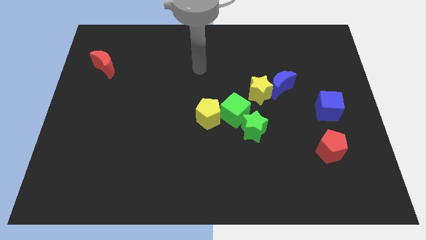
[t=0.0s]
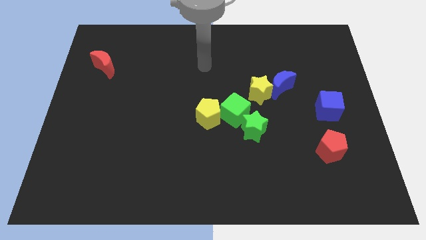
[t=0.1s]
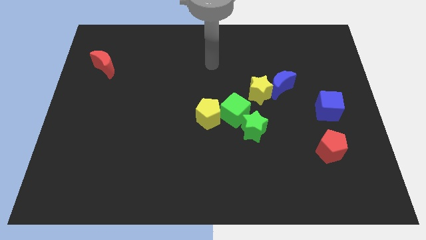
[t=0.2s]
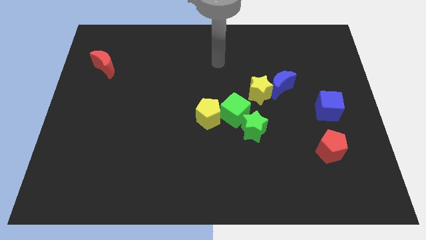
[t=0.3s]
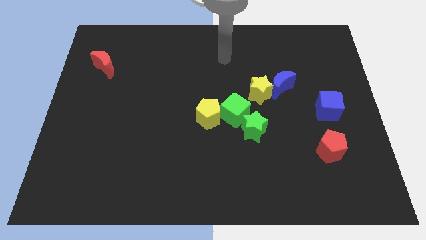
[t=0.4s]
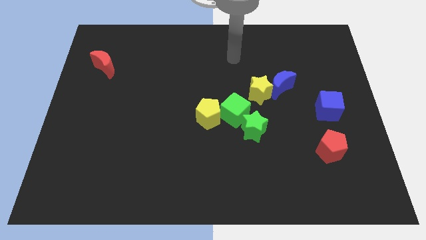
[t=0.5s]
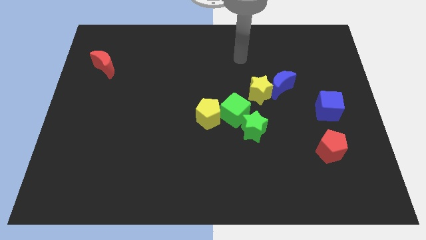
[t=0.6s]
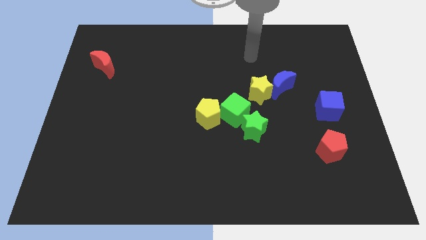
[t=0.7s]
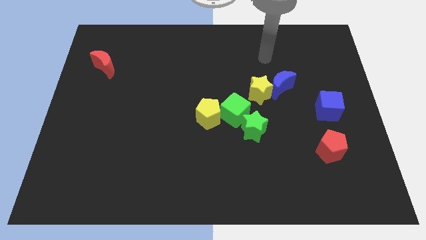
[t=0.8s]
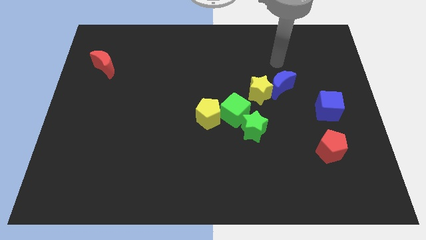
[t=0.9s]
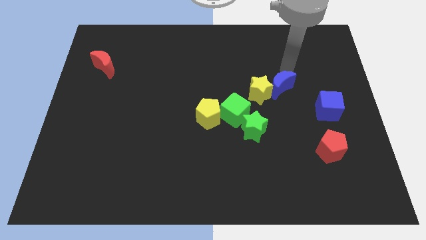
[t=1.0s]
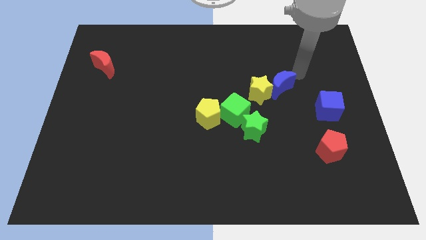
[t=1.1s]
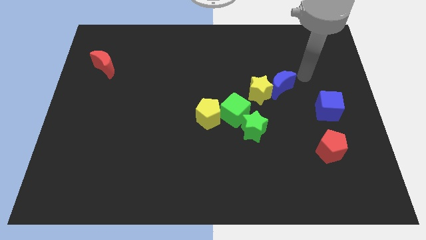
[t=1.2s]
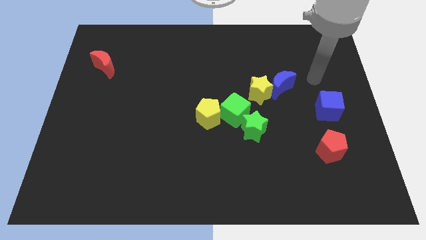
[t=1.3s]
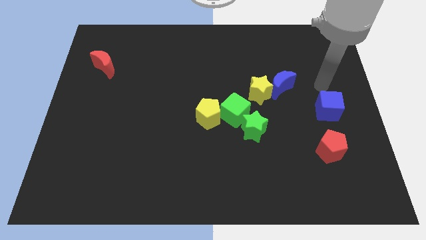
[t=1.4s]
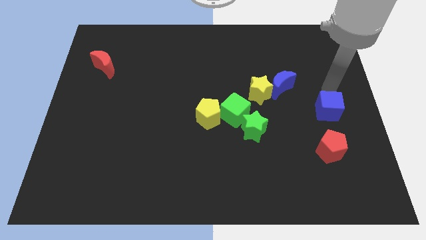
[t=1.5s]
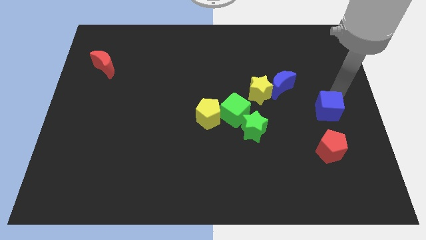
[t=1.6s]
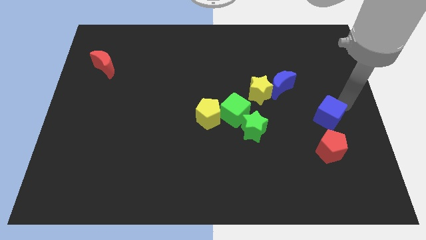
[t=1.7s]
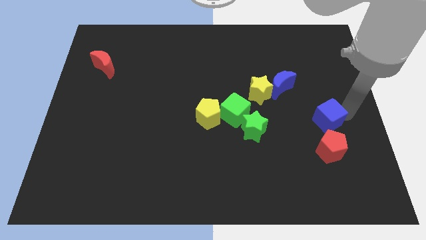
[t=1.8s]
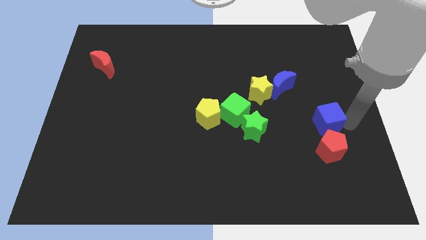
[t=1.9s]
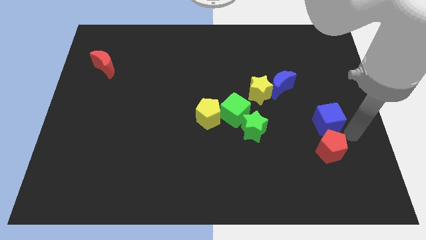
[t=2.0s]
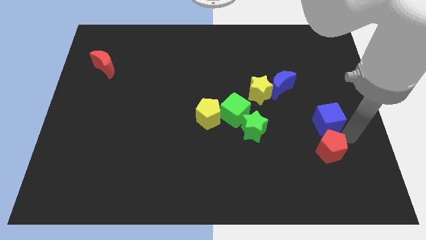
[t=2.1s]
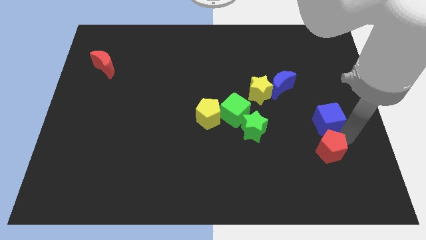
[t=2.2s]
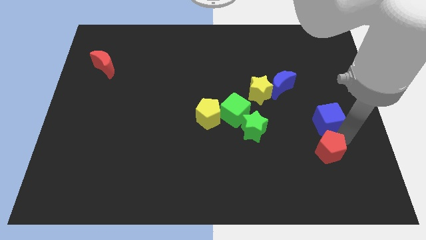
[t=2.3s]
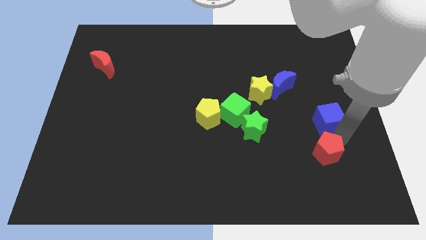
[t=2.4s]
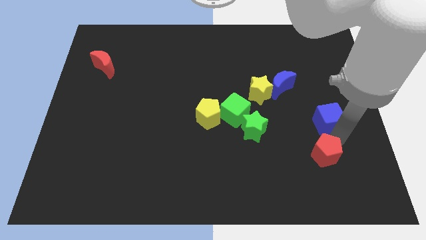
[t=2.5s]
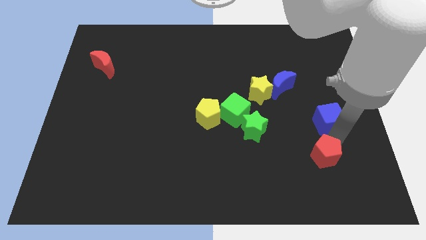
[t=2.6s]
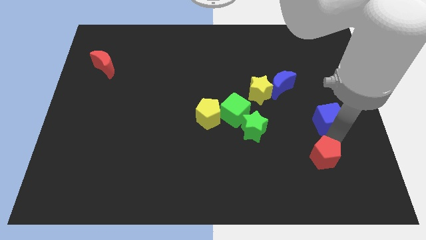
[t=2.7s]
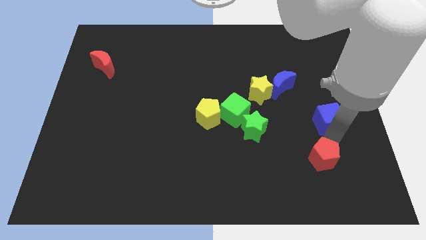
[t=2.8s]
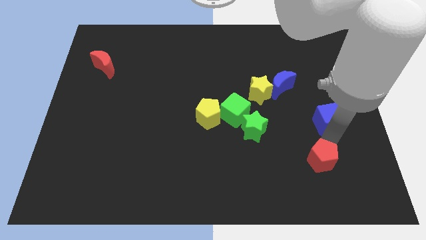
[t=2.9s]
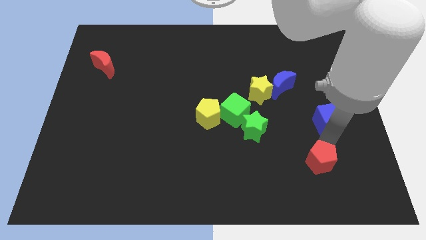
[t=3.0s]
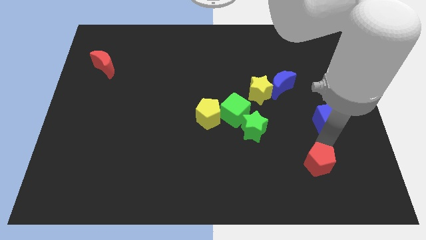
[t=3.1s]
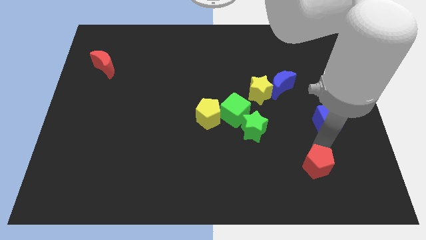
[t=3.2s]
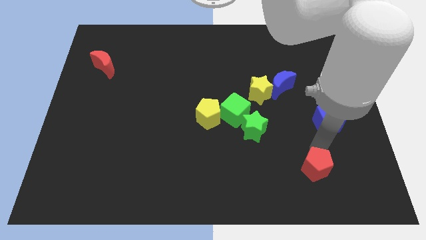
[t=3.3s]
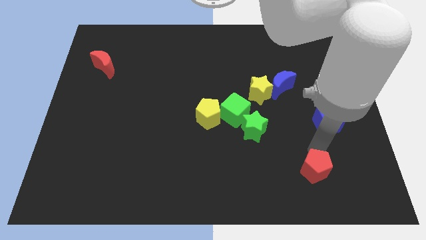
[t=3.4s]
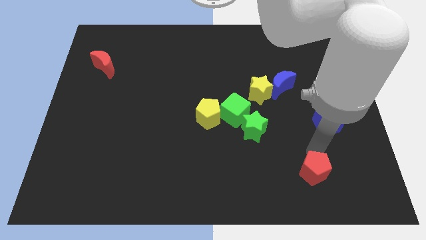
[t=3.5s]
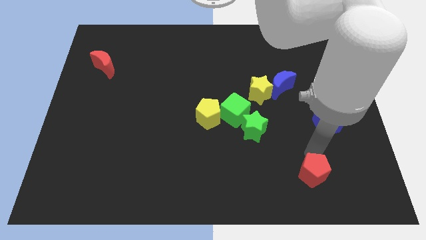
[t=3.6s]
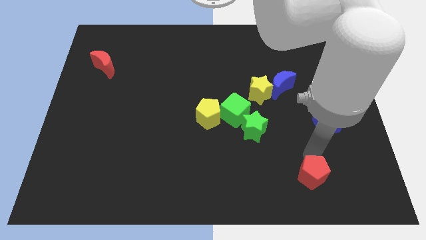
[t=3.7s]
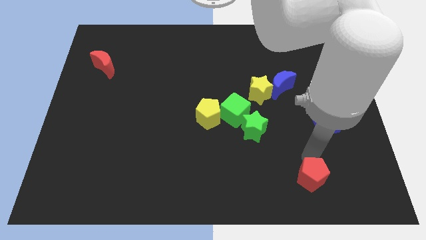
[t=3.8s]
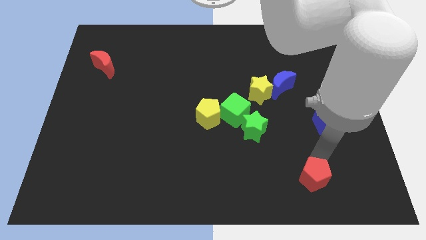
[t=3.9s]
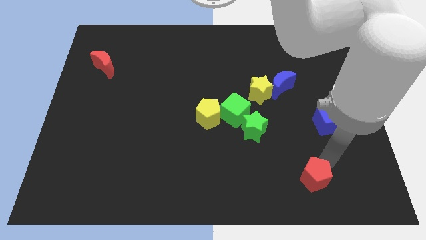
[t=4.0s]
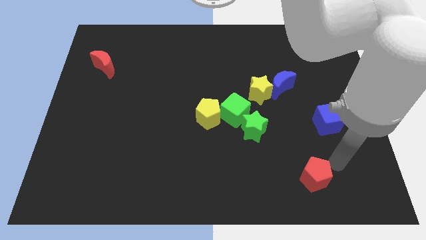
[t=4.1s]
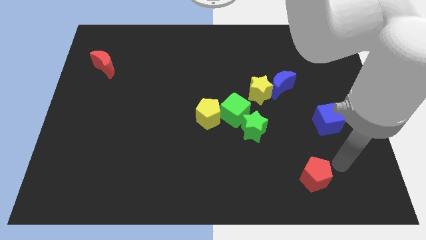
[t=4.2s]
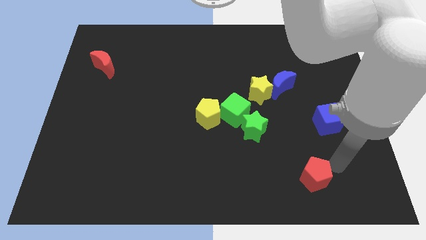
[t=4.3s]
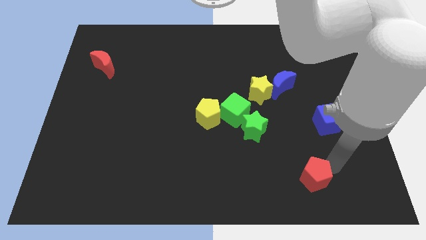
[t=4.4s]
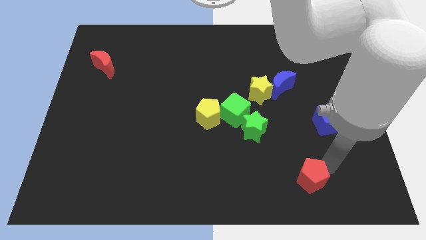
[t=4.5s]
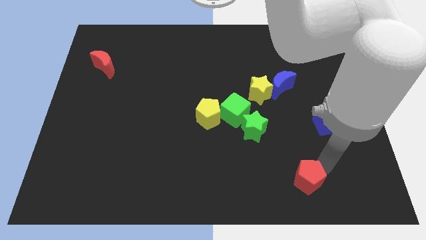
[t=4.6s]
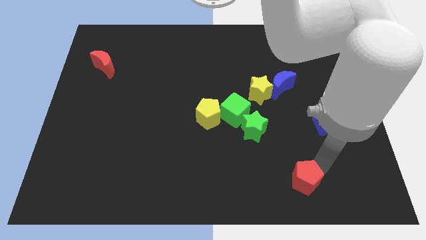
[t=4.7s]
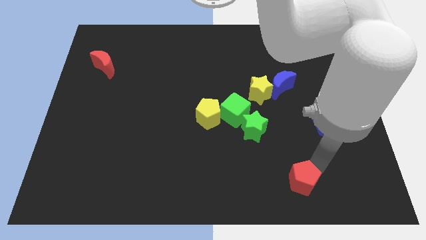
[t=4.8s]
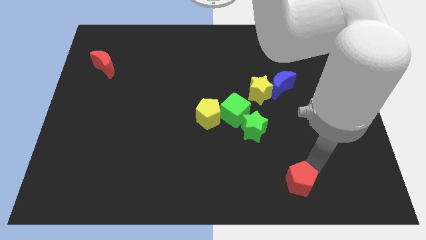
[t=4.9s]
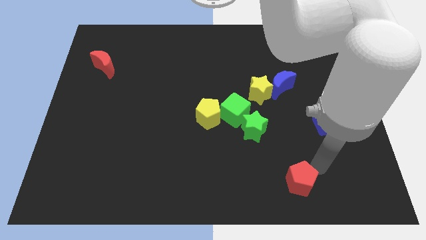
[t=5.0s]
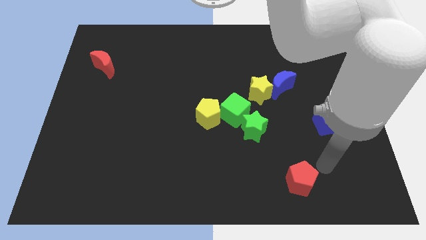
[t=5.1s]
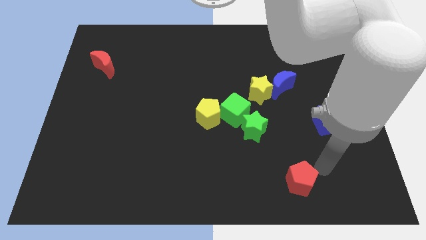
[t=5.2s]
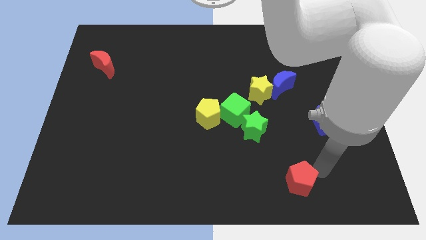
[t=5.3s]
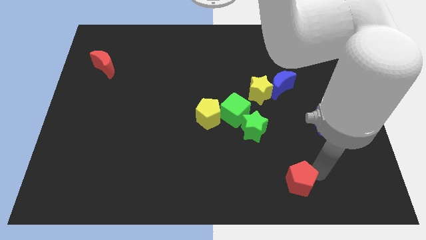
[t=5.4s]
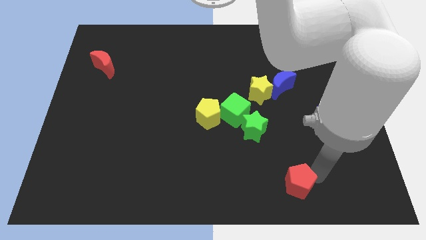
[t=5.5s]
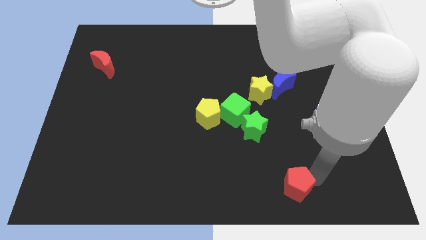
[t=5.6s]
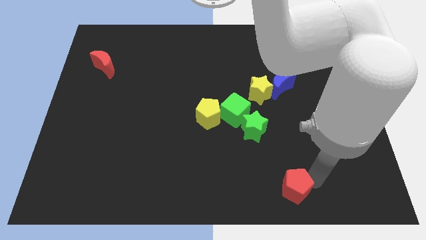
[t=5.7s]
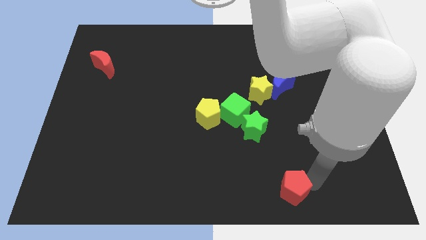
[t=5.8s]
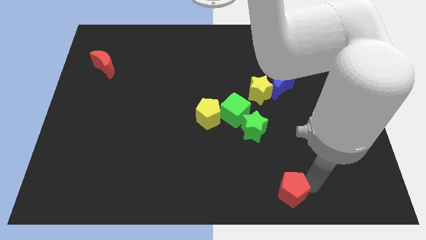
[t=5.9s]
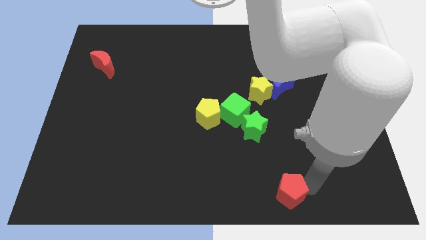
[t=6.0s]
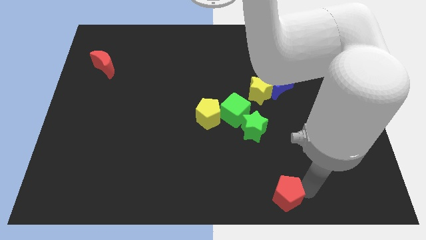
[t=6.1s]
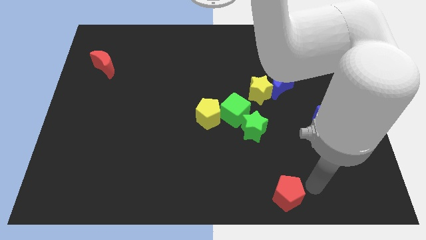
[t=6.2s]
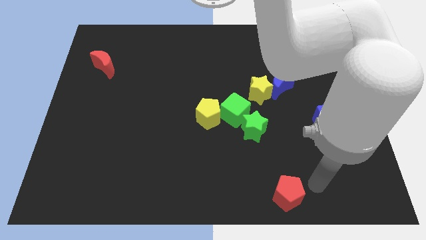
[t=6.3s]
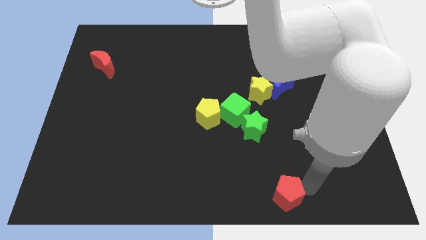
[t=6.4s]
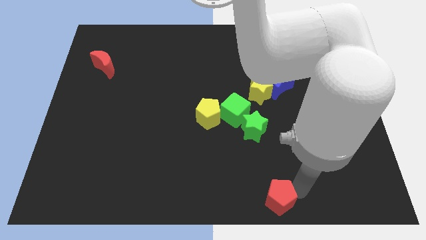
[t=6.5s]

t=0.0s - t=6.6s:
move the red pentagon to the bottom

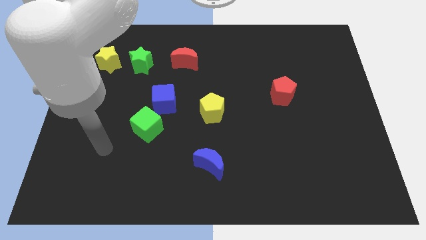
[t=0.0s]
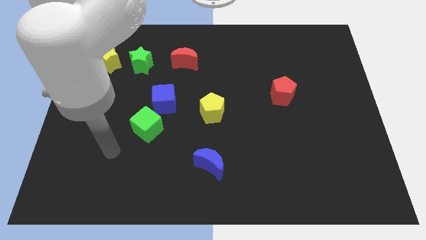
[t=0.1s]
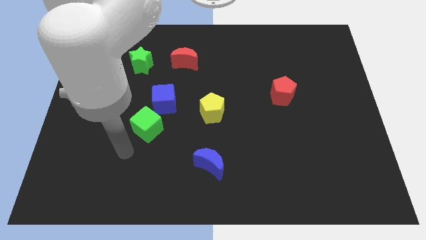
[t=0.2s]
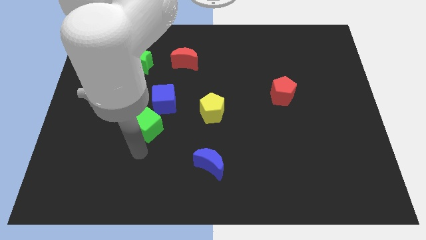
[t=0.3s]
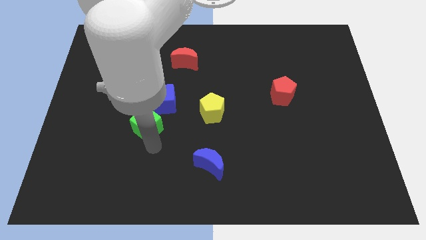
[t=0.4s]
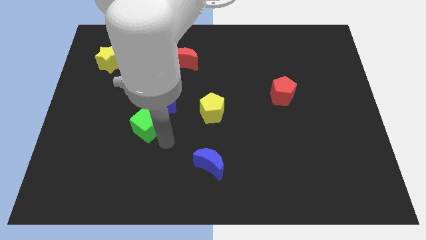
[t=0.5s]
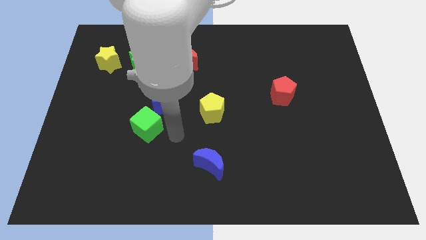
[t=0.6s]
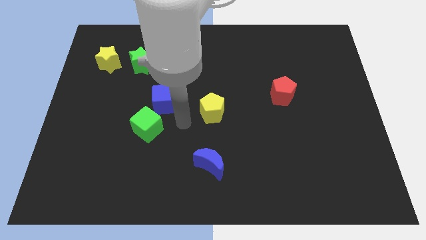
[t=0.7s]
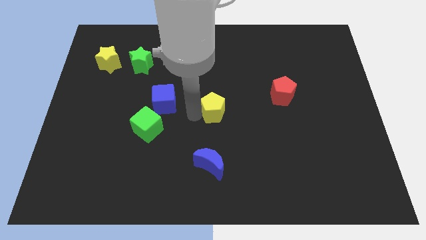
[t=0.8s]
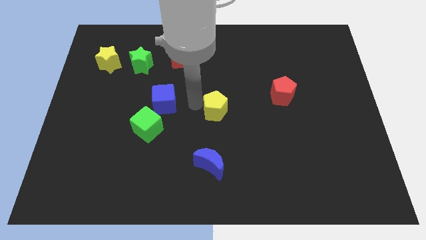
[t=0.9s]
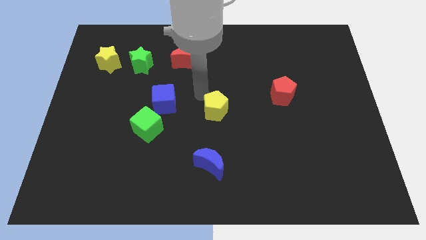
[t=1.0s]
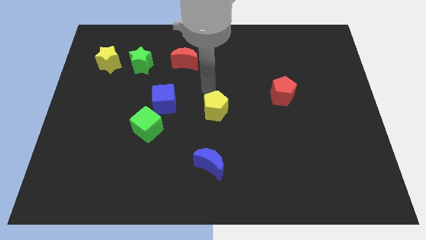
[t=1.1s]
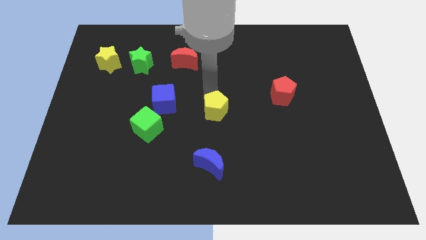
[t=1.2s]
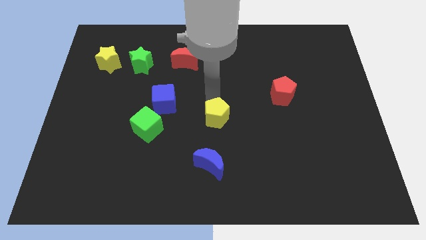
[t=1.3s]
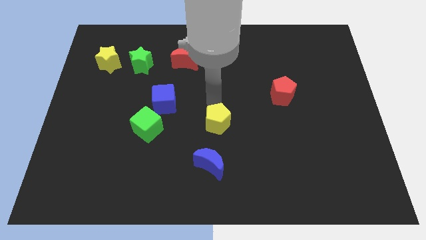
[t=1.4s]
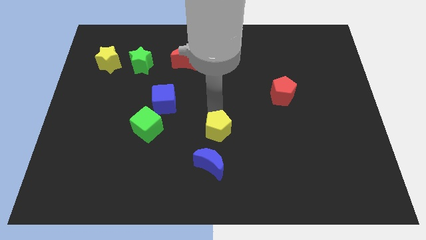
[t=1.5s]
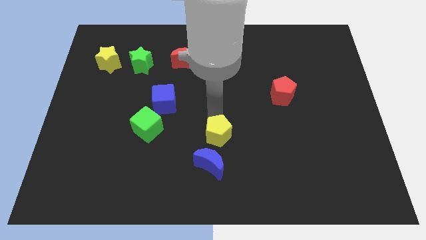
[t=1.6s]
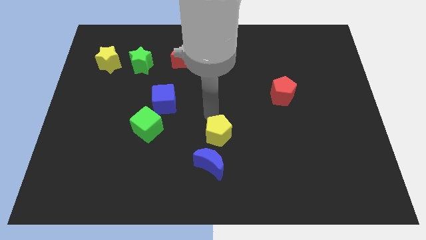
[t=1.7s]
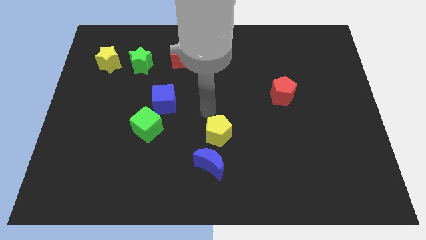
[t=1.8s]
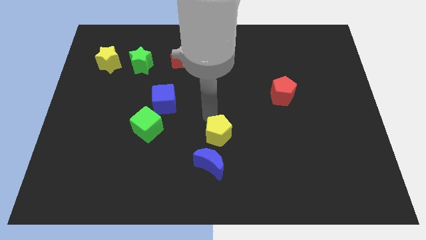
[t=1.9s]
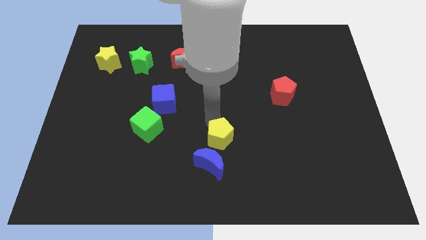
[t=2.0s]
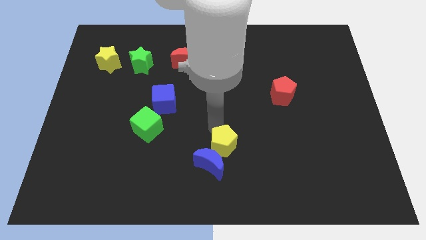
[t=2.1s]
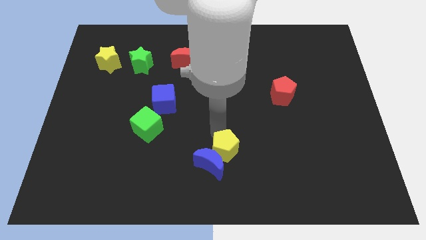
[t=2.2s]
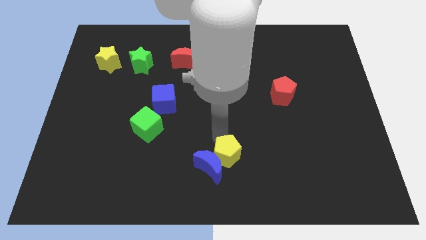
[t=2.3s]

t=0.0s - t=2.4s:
move the yellow pentagon to the bottom
